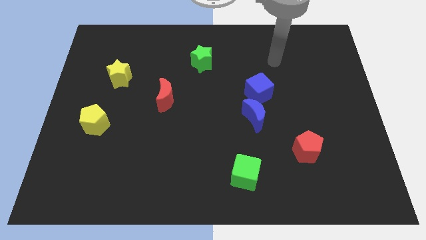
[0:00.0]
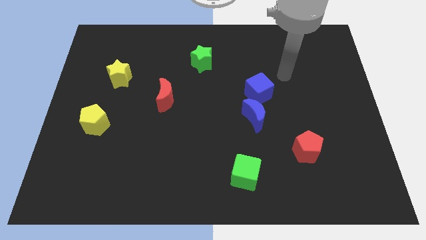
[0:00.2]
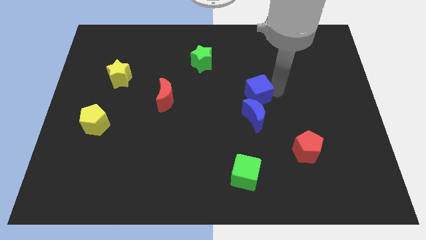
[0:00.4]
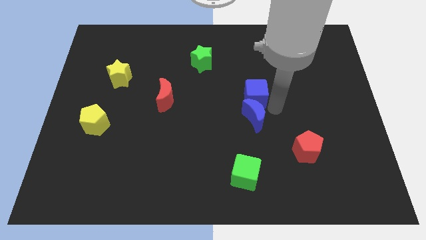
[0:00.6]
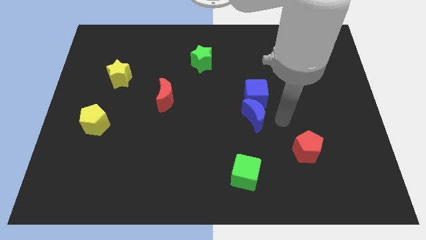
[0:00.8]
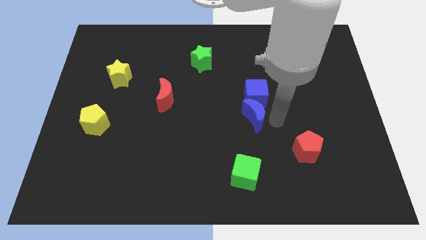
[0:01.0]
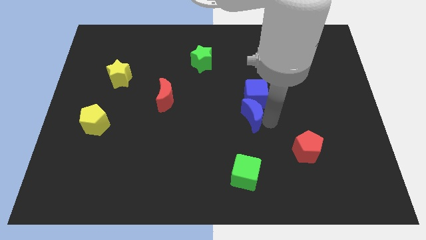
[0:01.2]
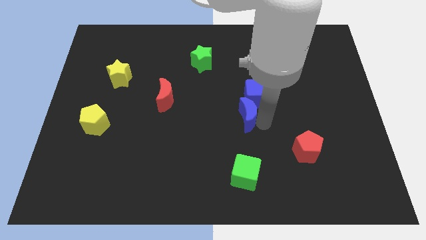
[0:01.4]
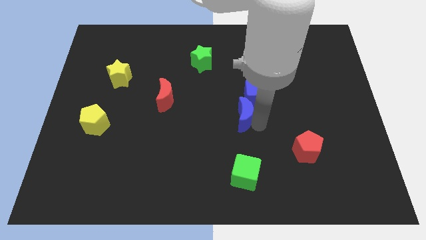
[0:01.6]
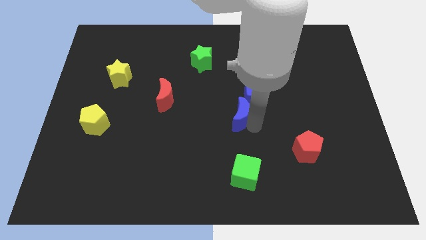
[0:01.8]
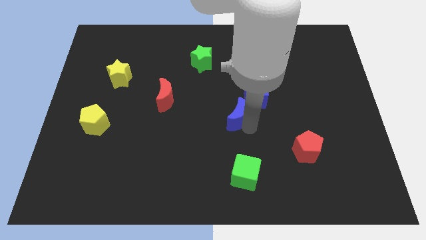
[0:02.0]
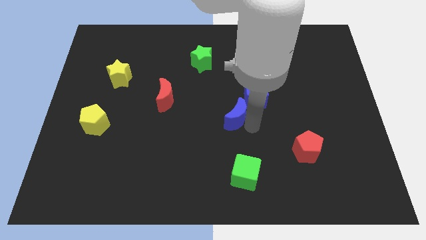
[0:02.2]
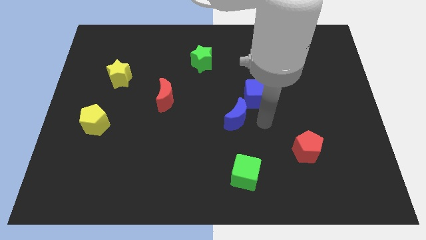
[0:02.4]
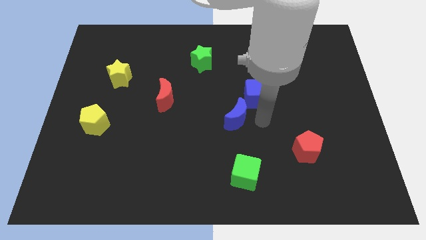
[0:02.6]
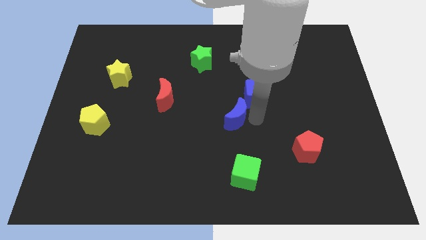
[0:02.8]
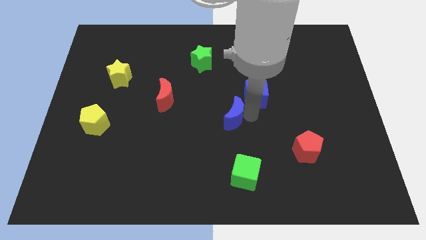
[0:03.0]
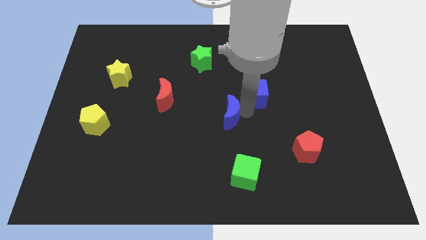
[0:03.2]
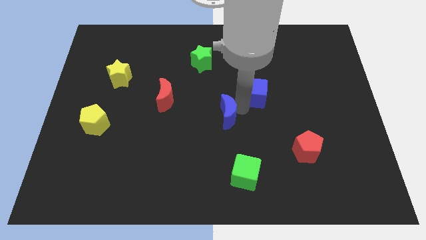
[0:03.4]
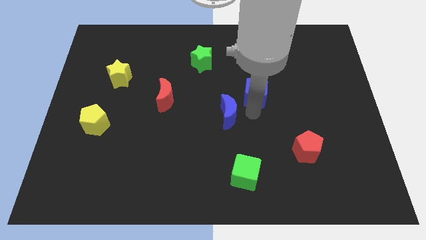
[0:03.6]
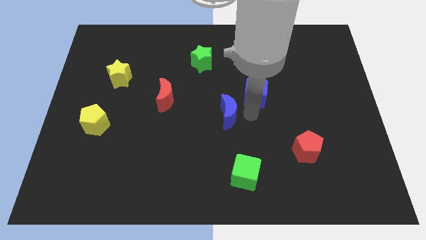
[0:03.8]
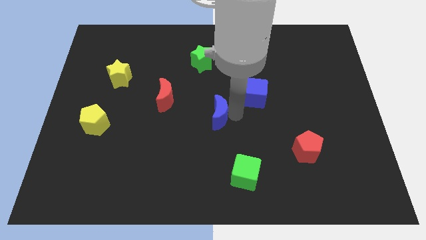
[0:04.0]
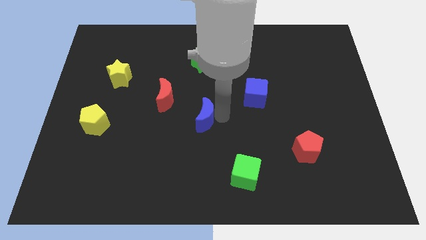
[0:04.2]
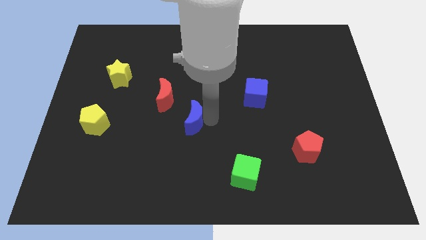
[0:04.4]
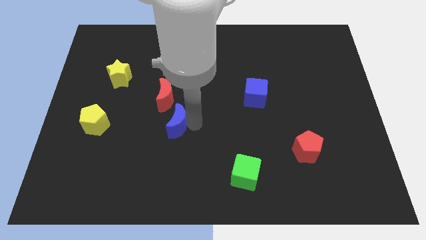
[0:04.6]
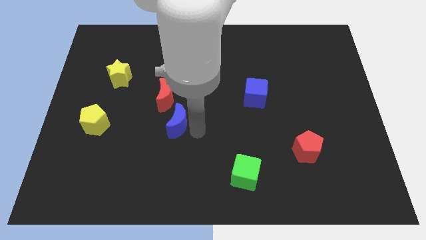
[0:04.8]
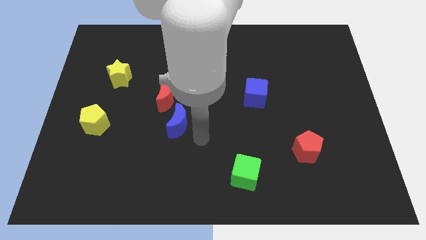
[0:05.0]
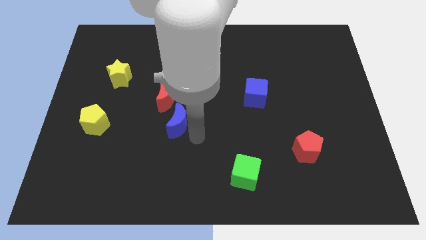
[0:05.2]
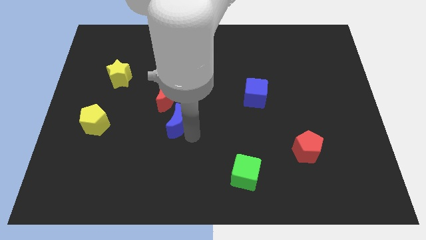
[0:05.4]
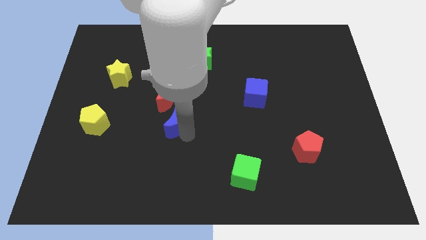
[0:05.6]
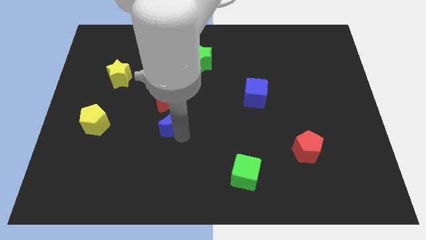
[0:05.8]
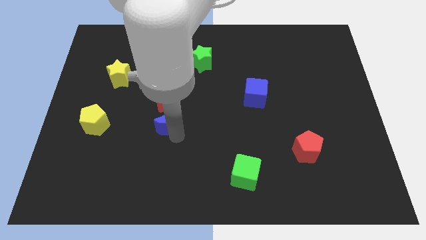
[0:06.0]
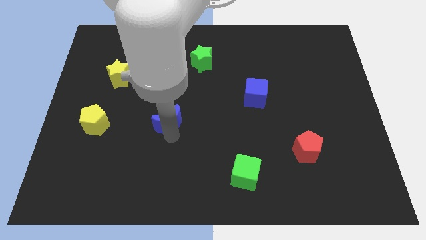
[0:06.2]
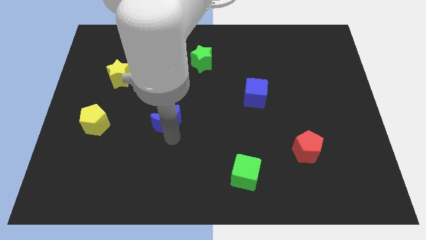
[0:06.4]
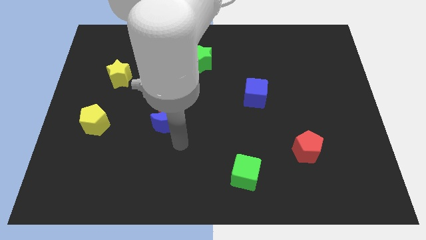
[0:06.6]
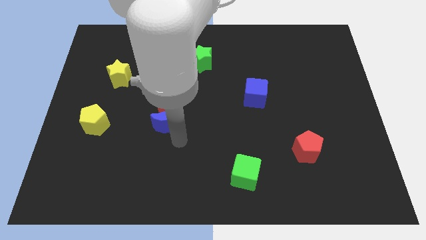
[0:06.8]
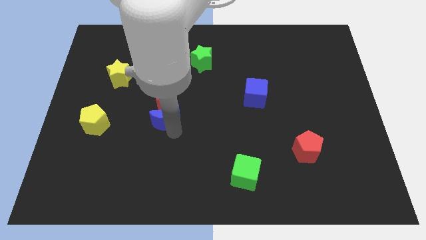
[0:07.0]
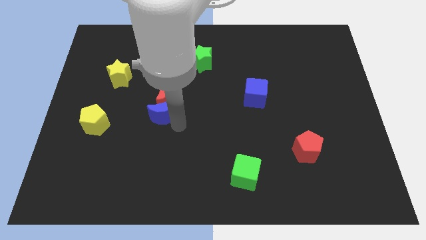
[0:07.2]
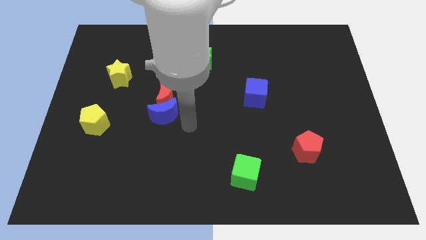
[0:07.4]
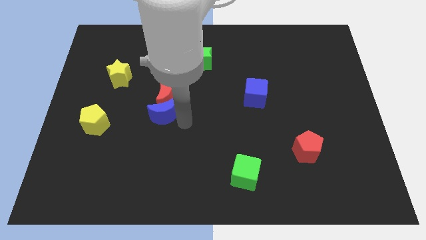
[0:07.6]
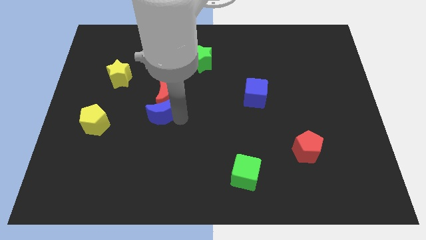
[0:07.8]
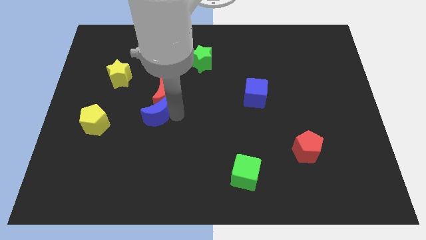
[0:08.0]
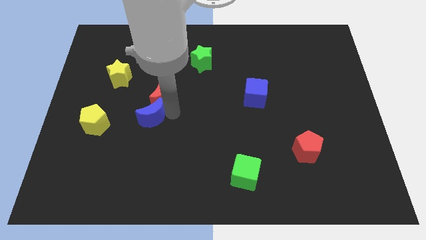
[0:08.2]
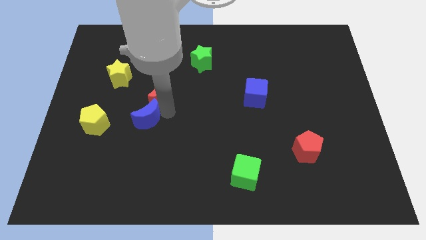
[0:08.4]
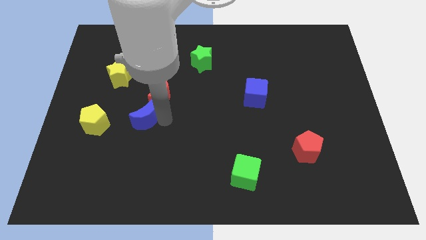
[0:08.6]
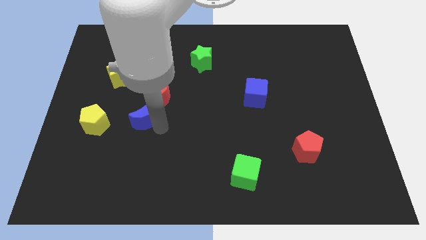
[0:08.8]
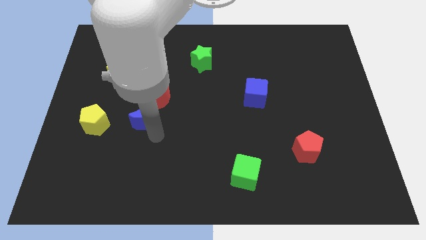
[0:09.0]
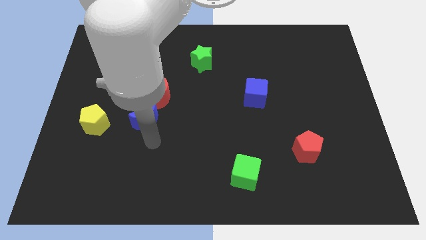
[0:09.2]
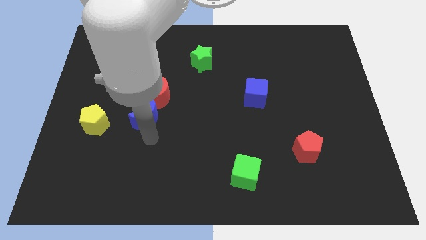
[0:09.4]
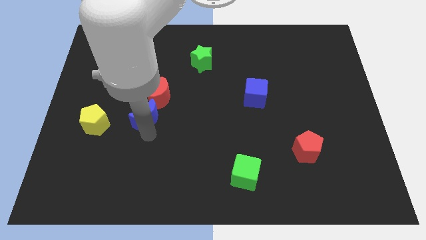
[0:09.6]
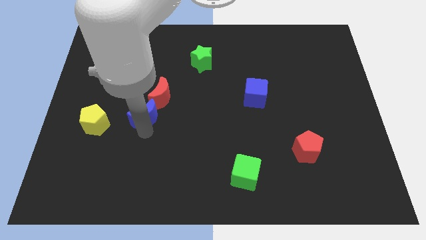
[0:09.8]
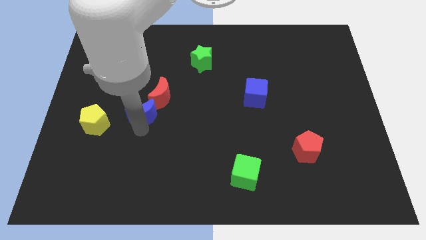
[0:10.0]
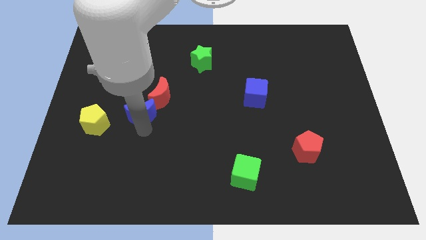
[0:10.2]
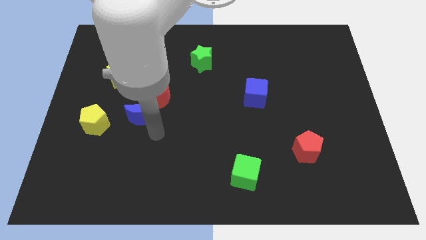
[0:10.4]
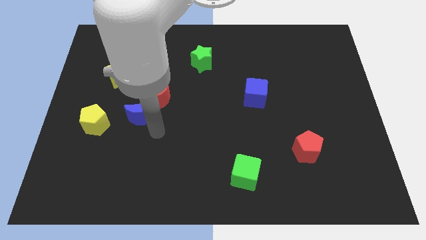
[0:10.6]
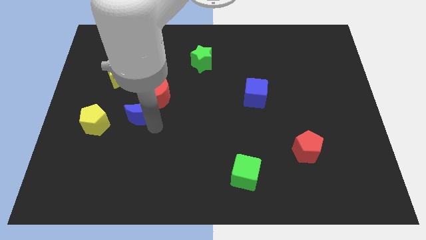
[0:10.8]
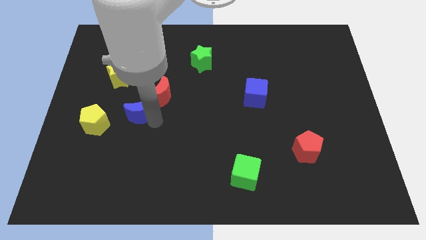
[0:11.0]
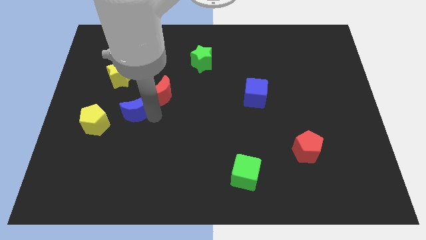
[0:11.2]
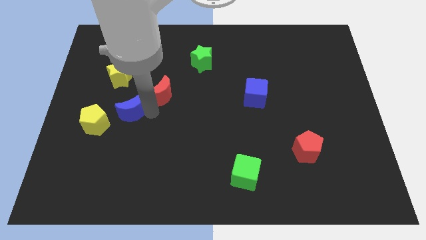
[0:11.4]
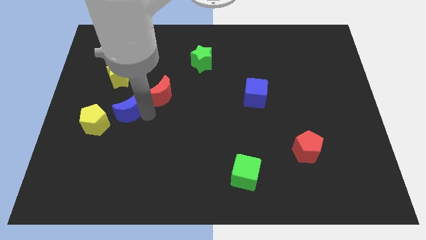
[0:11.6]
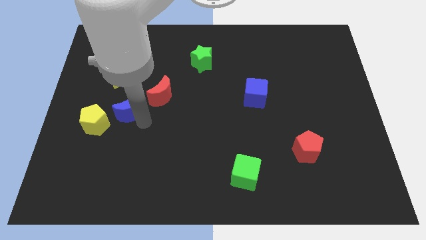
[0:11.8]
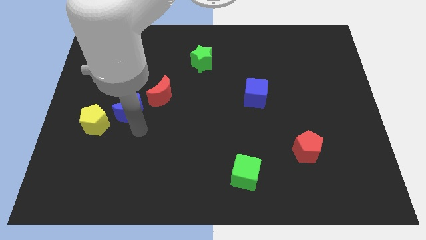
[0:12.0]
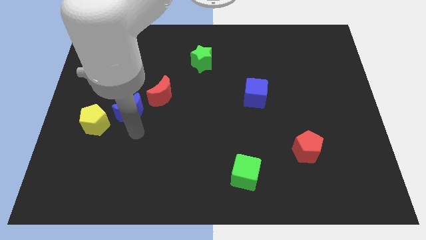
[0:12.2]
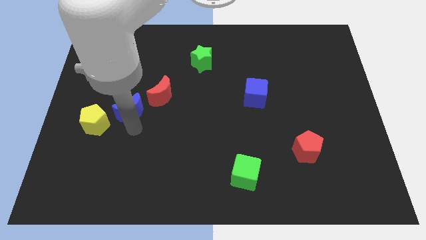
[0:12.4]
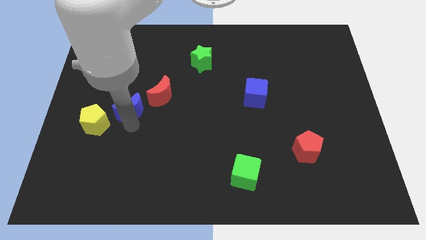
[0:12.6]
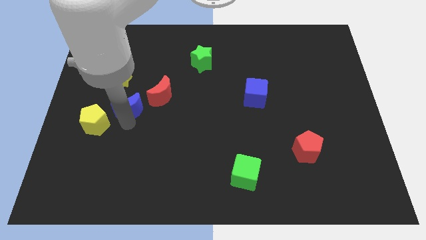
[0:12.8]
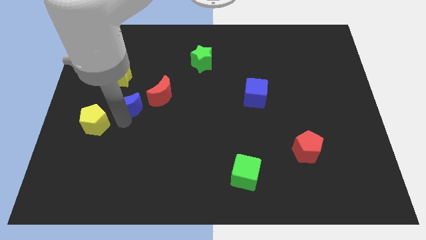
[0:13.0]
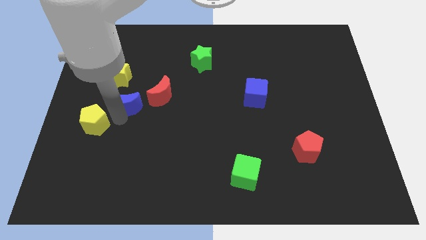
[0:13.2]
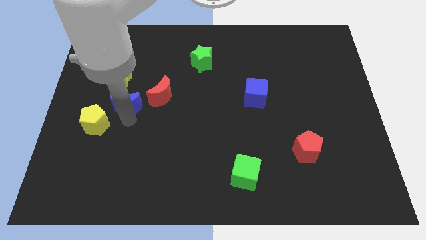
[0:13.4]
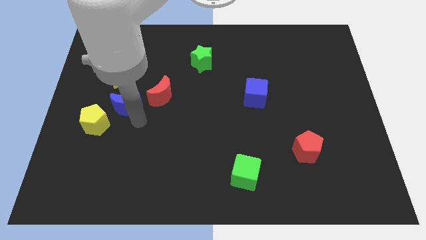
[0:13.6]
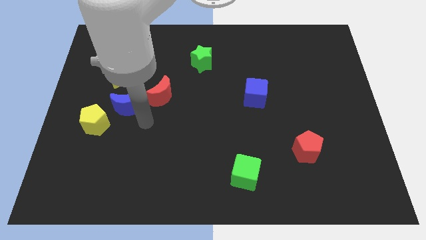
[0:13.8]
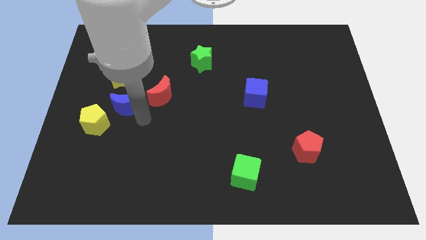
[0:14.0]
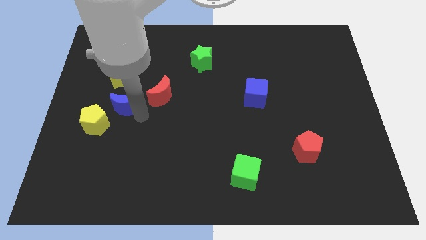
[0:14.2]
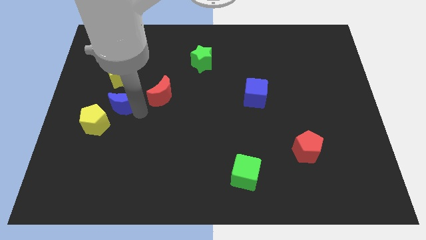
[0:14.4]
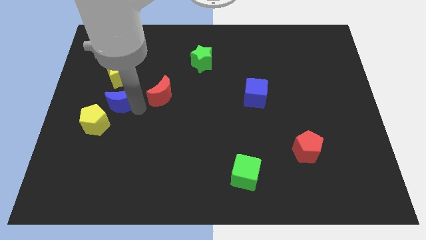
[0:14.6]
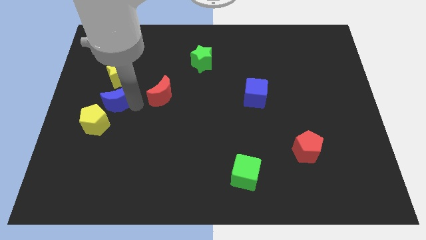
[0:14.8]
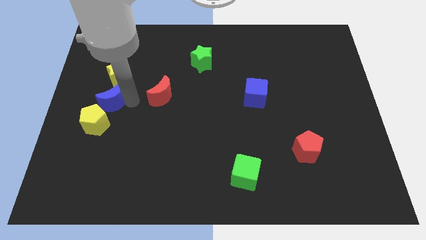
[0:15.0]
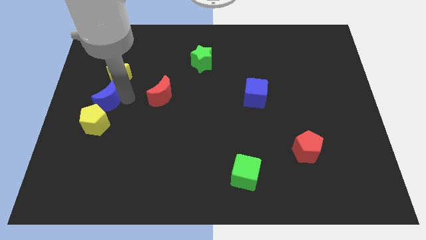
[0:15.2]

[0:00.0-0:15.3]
move the blue moon diagonally down and to the left of the yellow star
